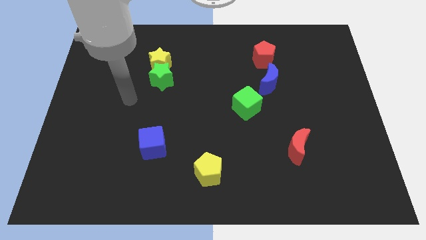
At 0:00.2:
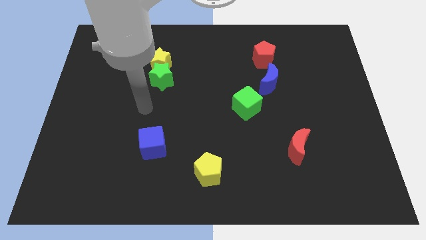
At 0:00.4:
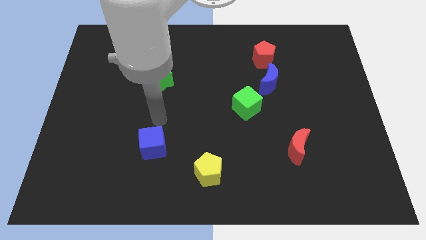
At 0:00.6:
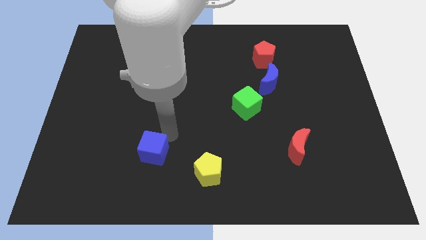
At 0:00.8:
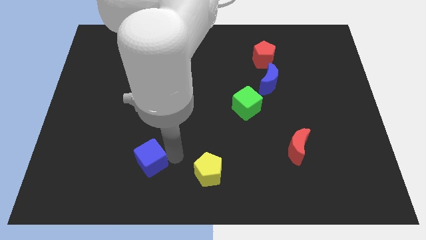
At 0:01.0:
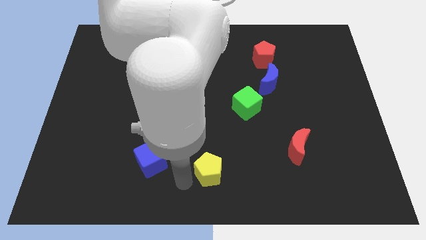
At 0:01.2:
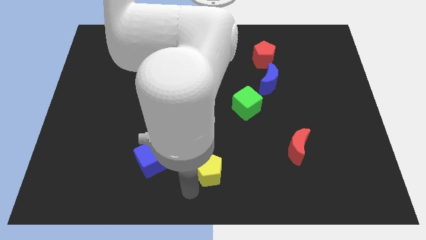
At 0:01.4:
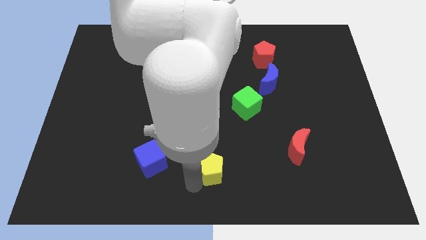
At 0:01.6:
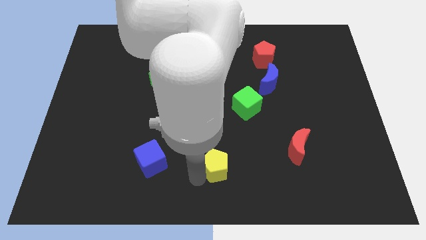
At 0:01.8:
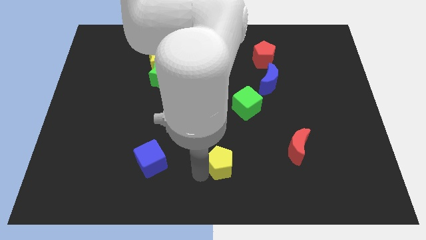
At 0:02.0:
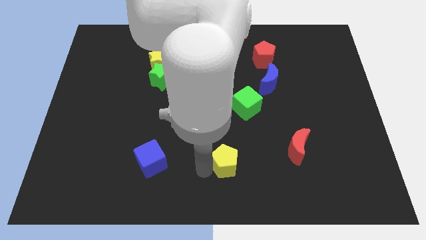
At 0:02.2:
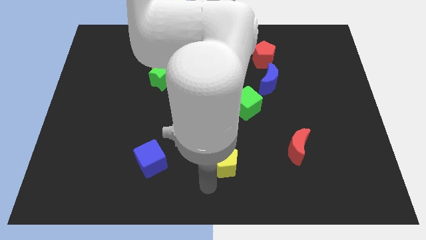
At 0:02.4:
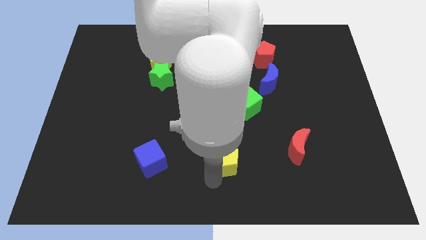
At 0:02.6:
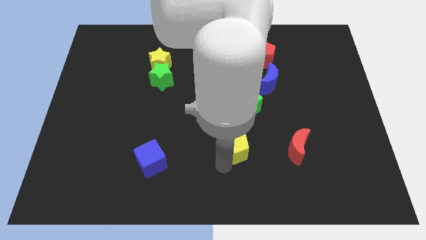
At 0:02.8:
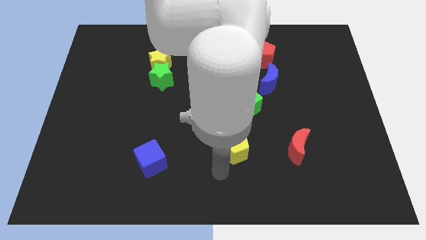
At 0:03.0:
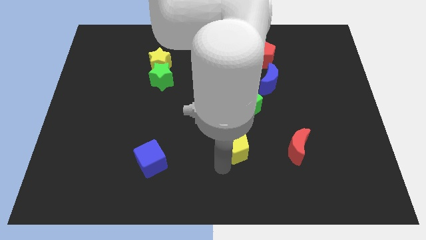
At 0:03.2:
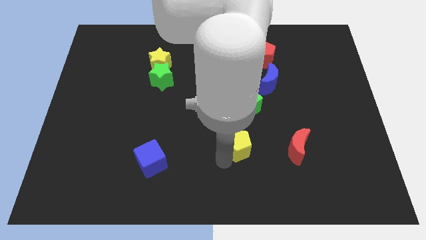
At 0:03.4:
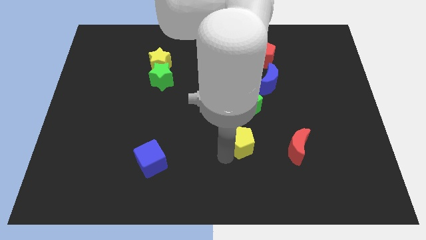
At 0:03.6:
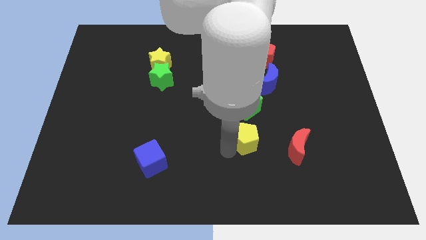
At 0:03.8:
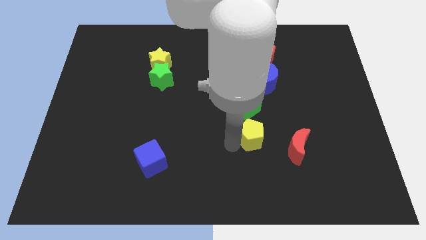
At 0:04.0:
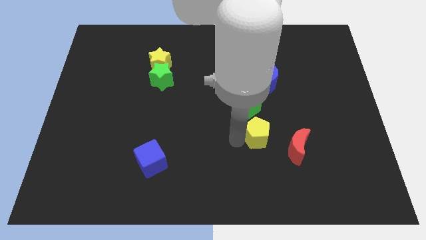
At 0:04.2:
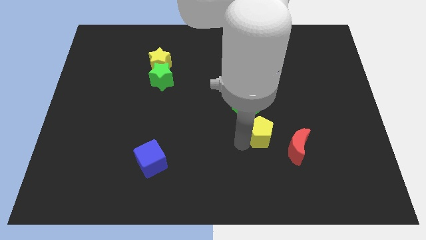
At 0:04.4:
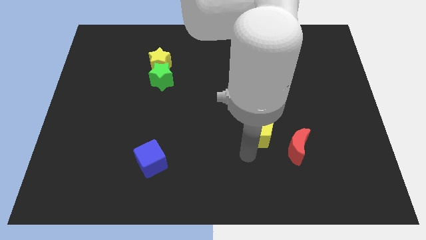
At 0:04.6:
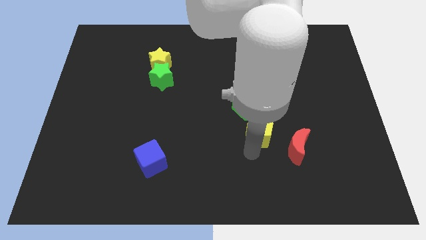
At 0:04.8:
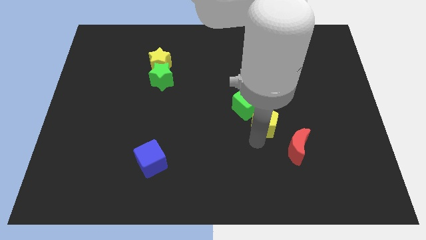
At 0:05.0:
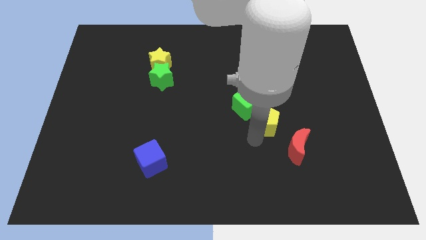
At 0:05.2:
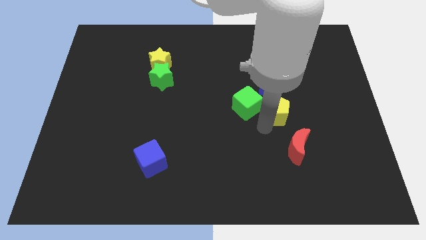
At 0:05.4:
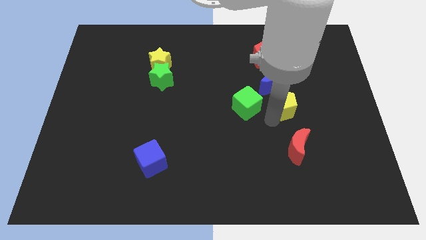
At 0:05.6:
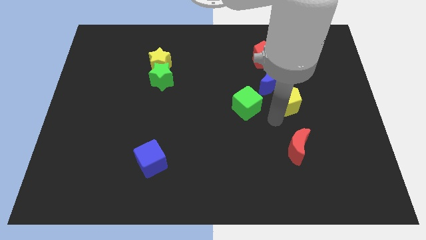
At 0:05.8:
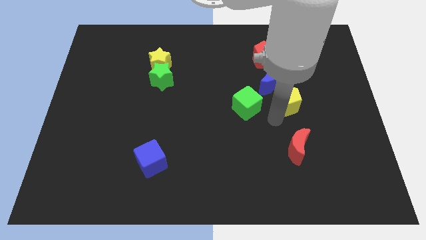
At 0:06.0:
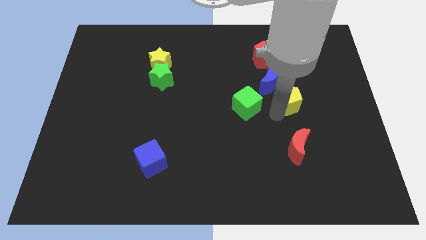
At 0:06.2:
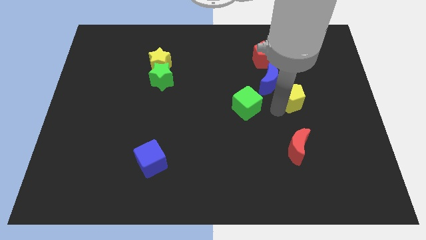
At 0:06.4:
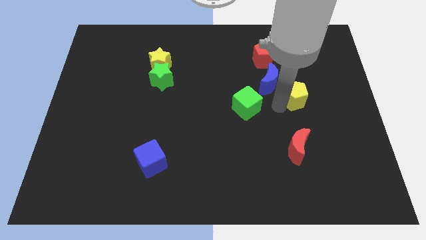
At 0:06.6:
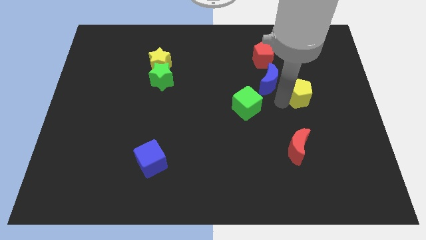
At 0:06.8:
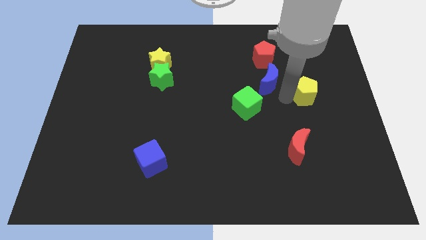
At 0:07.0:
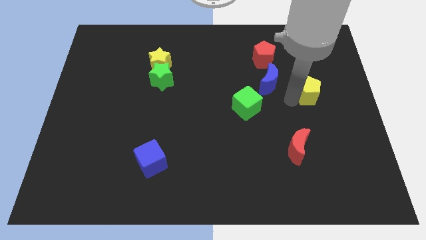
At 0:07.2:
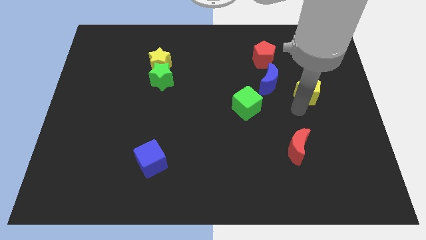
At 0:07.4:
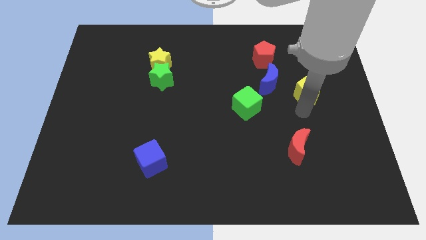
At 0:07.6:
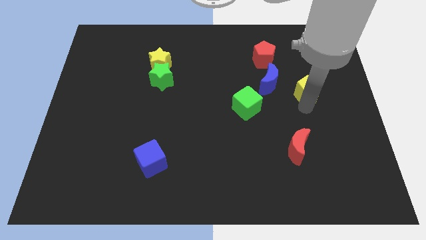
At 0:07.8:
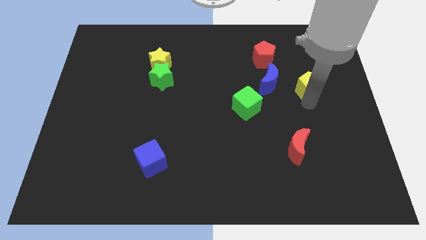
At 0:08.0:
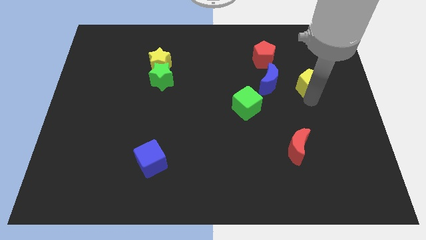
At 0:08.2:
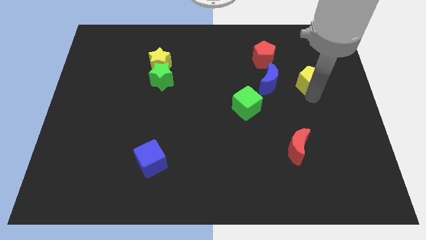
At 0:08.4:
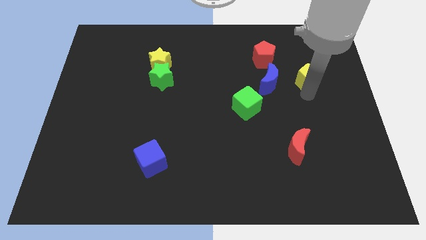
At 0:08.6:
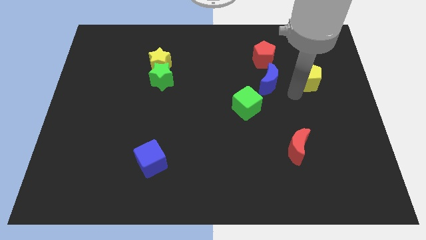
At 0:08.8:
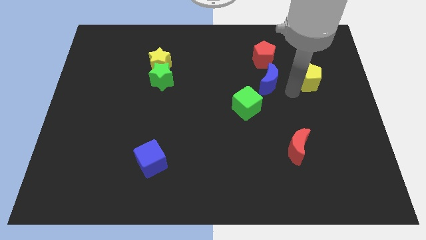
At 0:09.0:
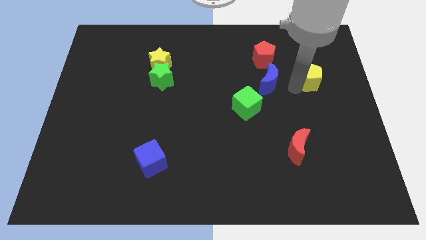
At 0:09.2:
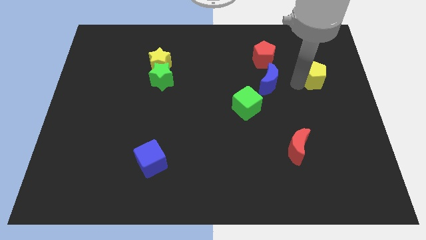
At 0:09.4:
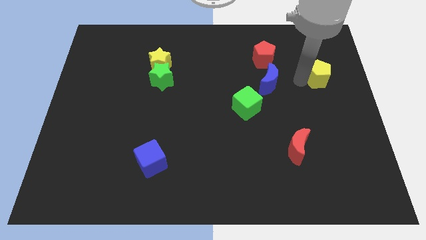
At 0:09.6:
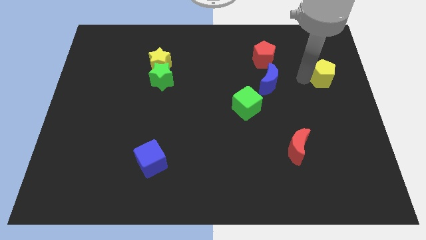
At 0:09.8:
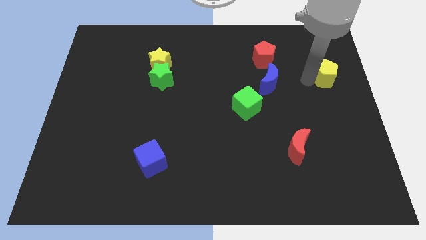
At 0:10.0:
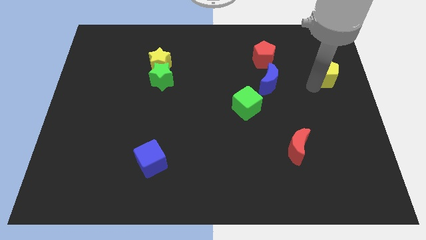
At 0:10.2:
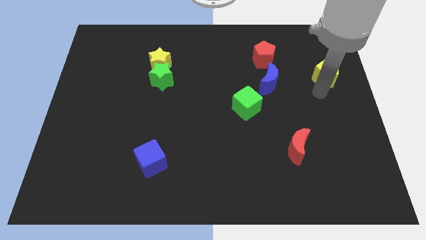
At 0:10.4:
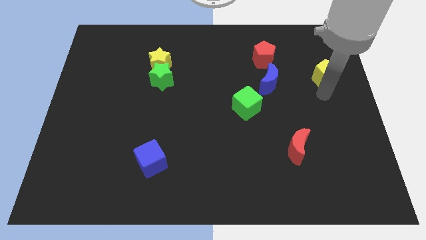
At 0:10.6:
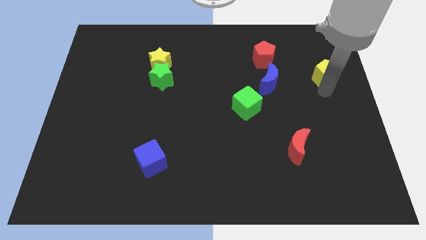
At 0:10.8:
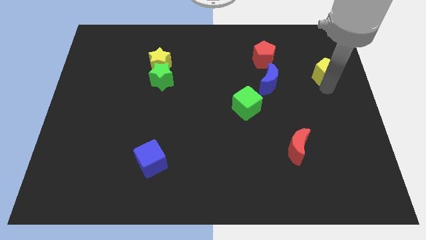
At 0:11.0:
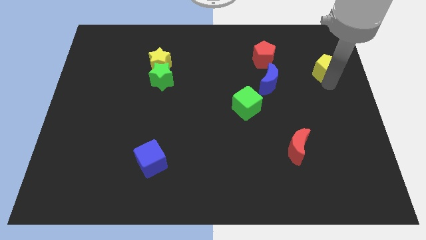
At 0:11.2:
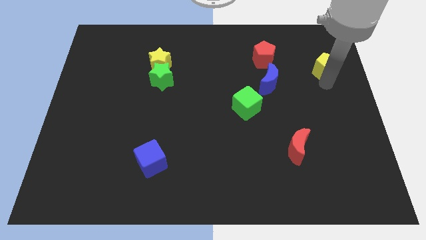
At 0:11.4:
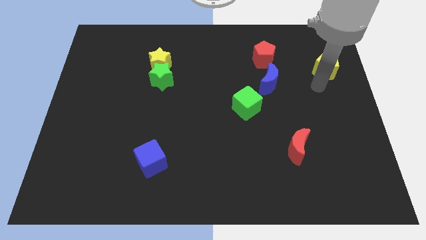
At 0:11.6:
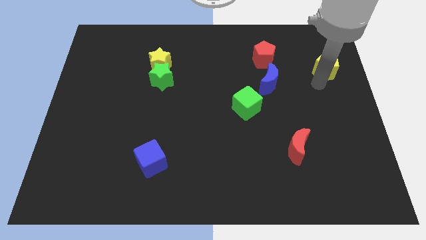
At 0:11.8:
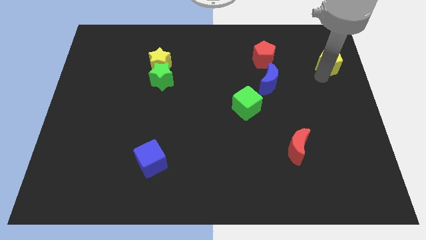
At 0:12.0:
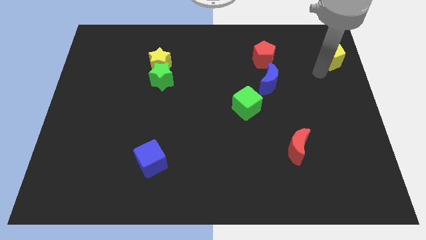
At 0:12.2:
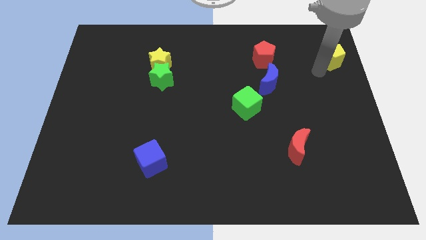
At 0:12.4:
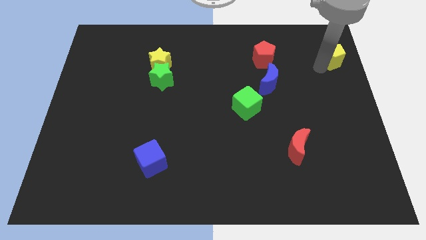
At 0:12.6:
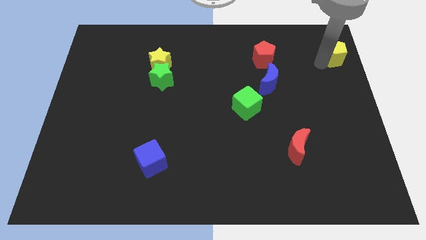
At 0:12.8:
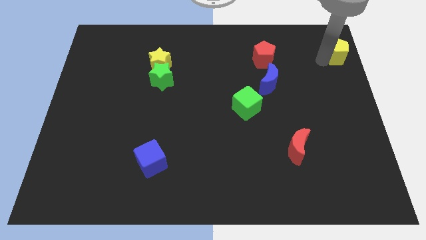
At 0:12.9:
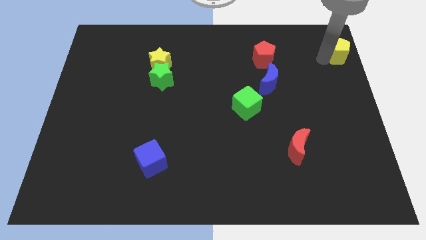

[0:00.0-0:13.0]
move the yellow pentagon to the top right of the board
